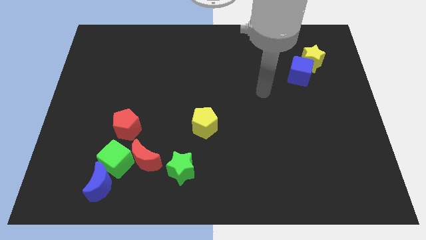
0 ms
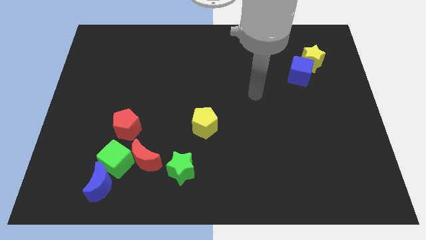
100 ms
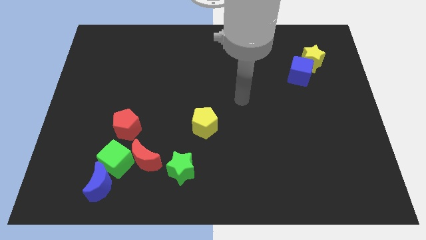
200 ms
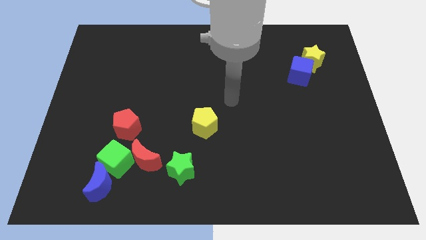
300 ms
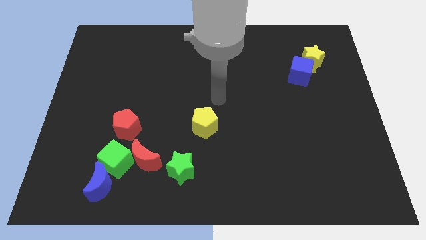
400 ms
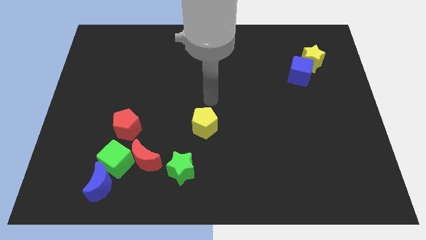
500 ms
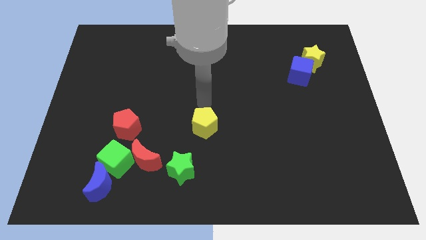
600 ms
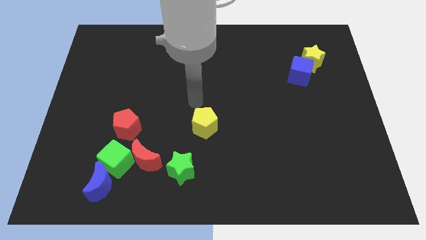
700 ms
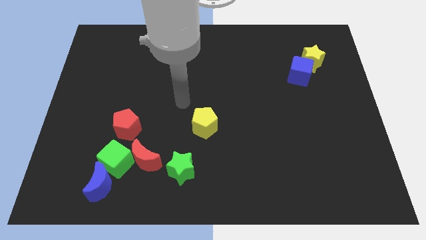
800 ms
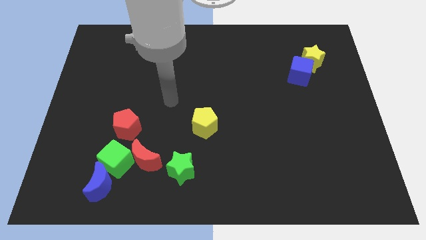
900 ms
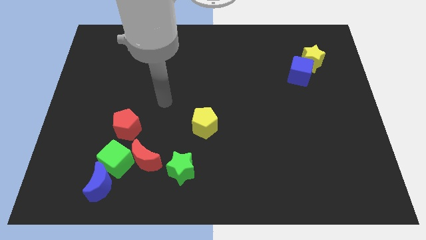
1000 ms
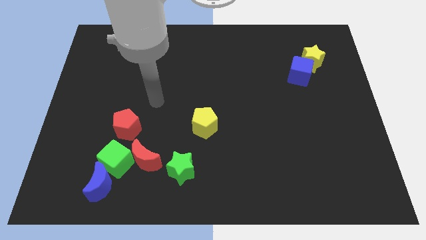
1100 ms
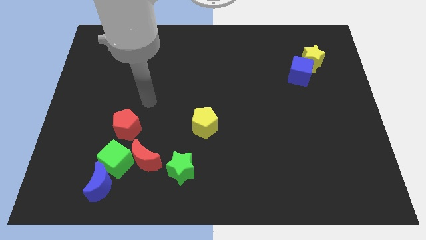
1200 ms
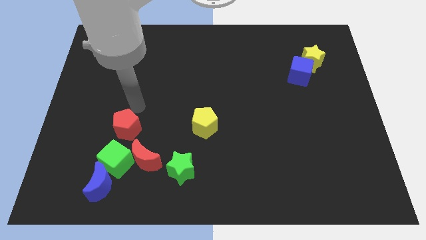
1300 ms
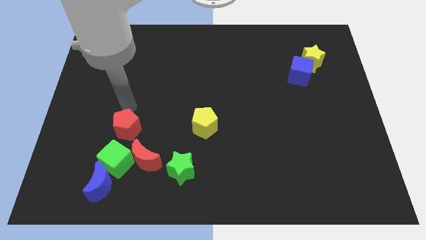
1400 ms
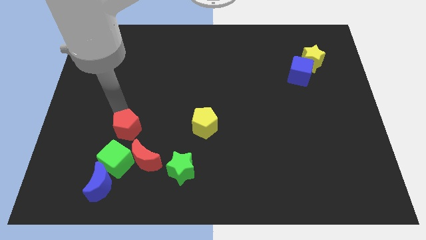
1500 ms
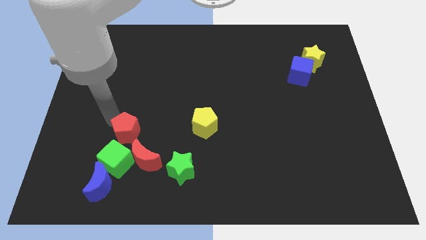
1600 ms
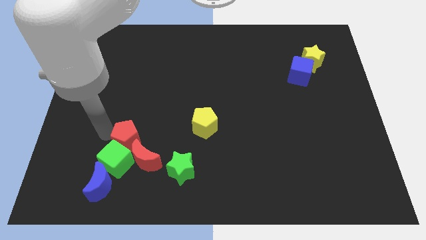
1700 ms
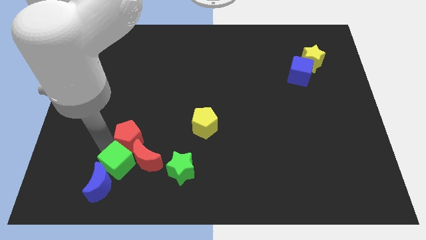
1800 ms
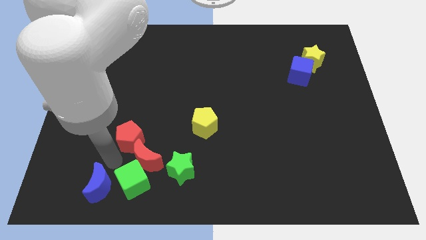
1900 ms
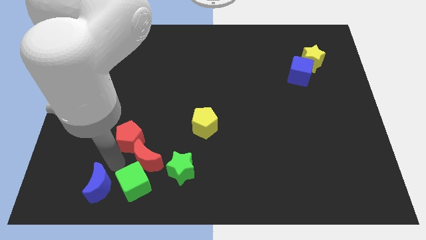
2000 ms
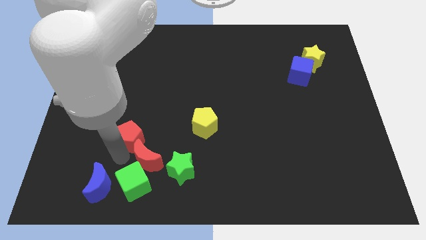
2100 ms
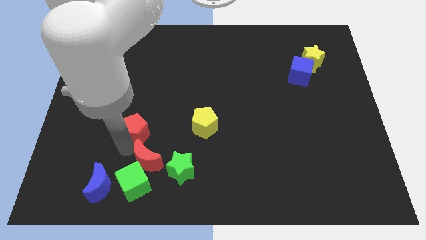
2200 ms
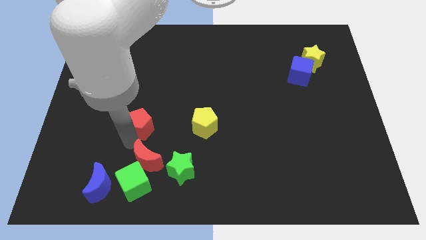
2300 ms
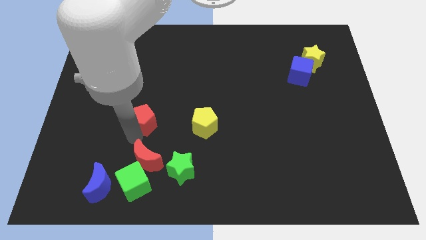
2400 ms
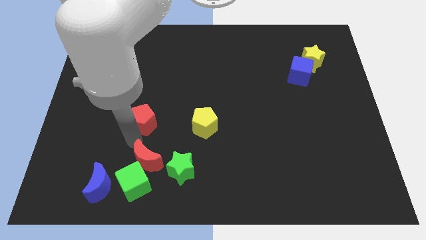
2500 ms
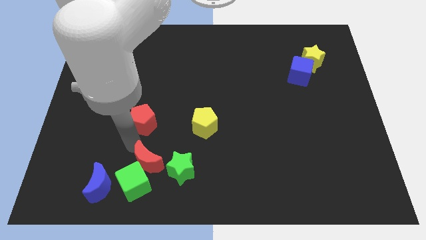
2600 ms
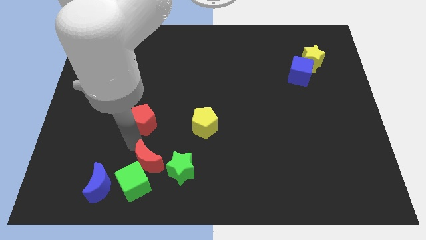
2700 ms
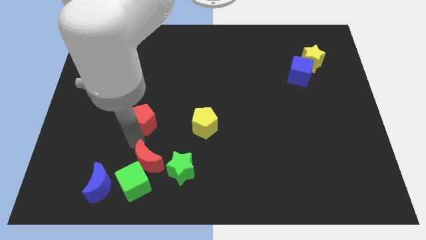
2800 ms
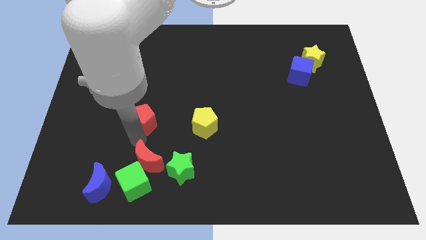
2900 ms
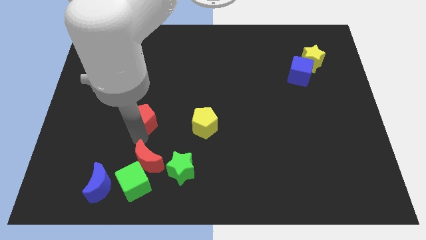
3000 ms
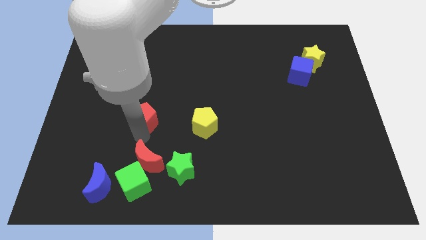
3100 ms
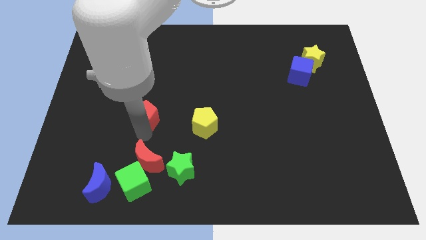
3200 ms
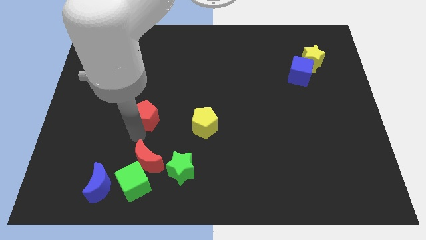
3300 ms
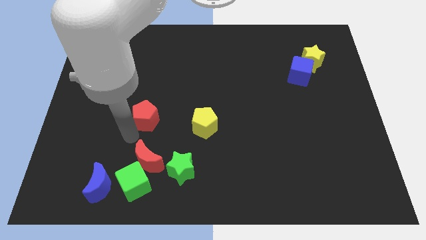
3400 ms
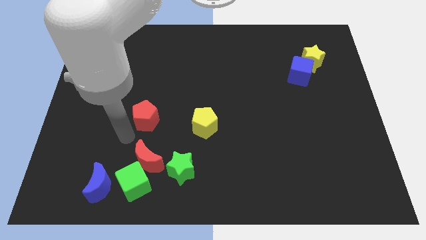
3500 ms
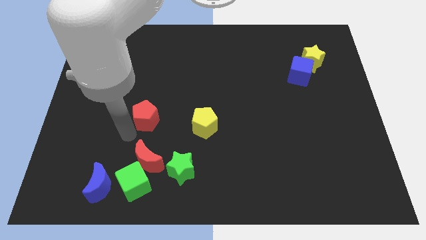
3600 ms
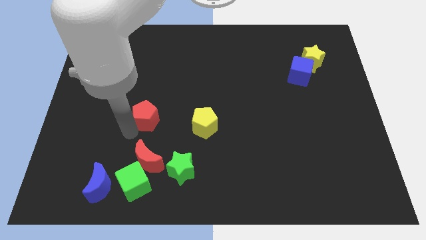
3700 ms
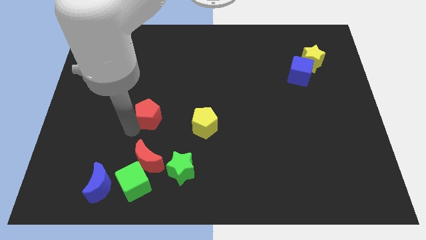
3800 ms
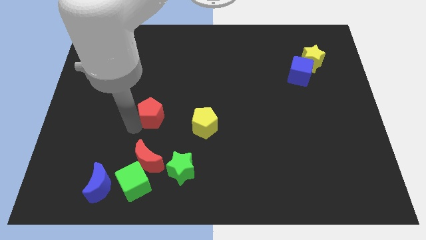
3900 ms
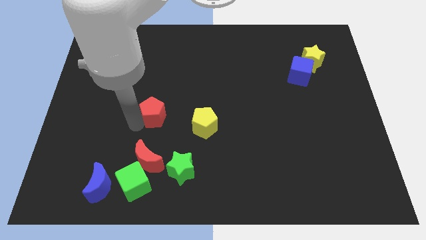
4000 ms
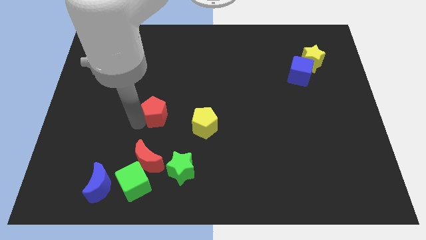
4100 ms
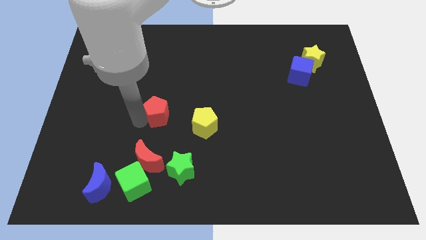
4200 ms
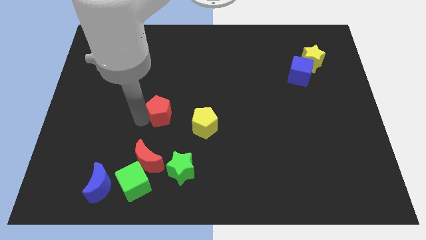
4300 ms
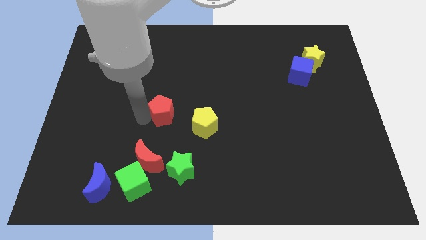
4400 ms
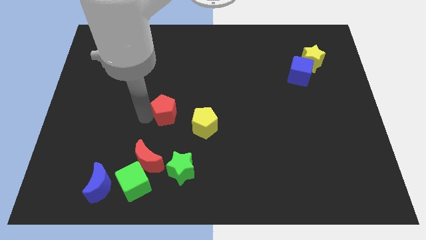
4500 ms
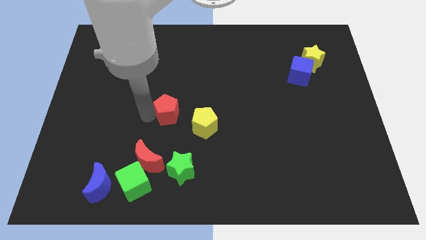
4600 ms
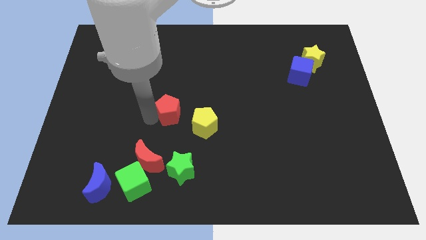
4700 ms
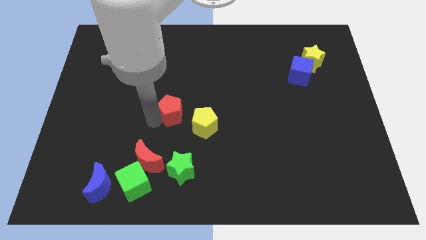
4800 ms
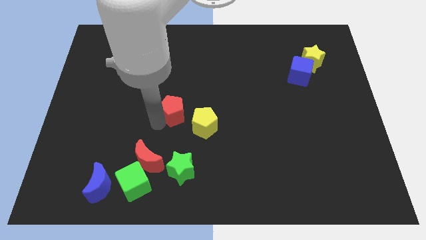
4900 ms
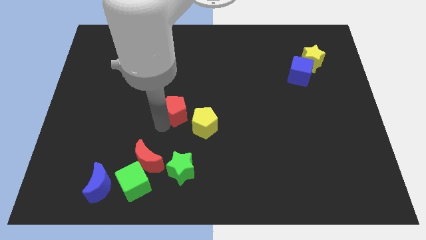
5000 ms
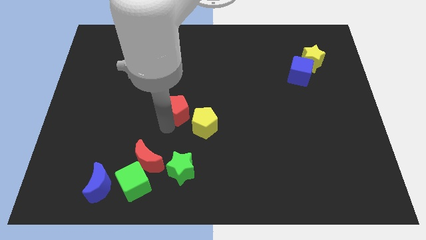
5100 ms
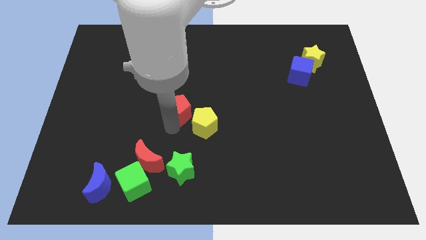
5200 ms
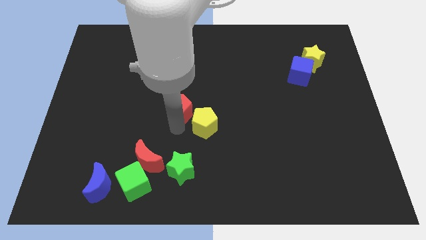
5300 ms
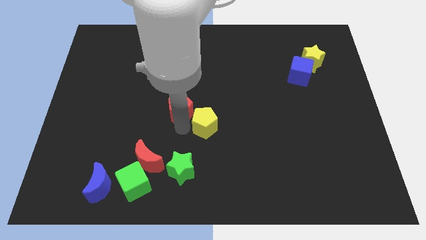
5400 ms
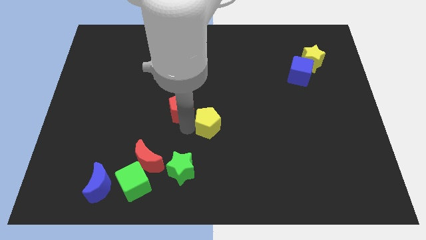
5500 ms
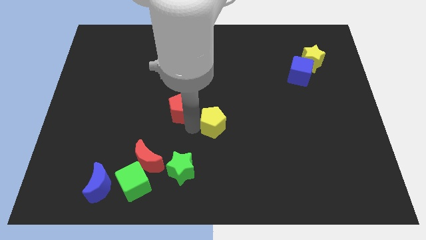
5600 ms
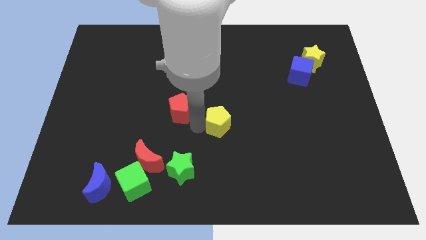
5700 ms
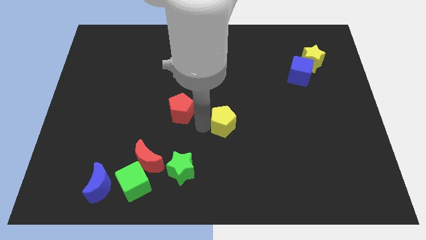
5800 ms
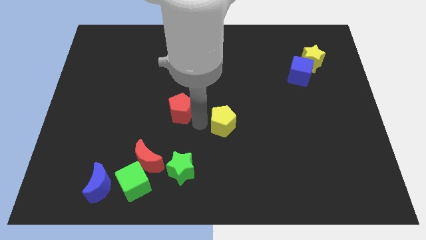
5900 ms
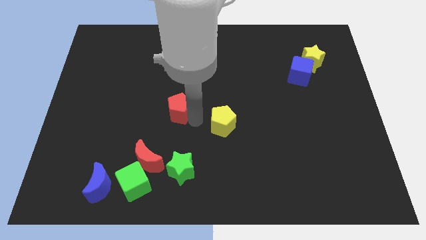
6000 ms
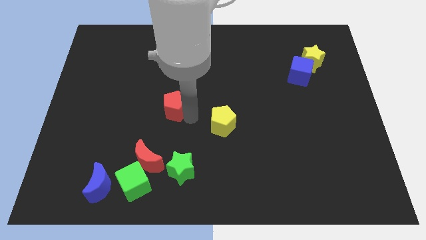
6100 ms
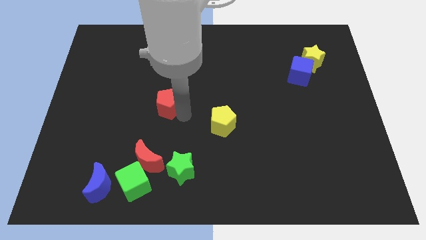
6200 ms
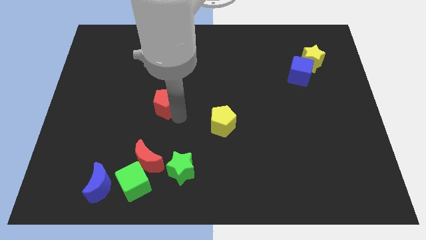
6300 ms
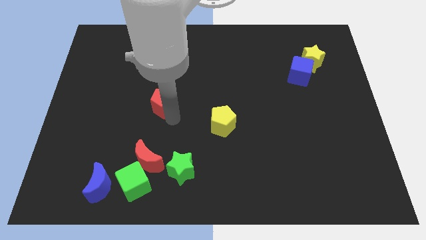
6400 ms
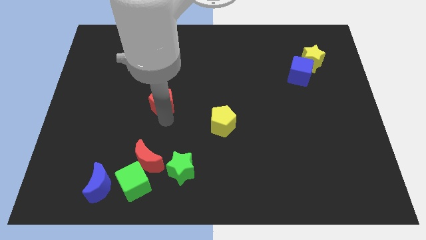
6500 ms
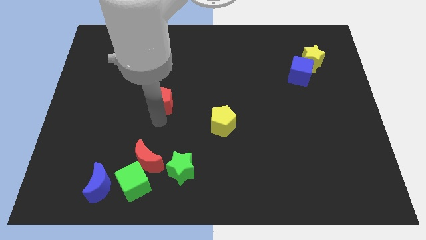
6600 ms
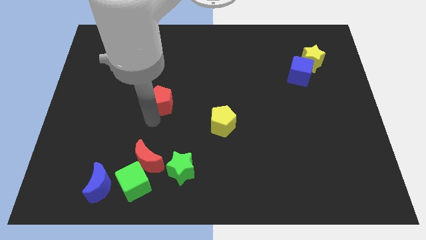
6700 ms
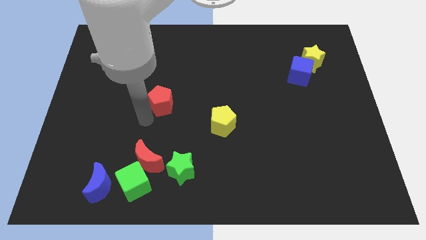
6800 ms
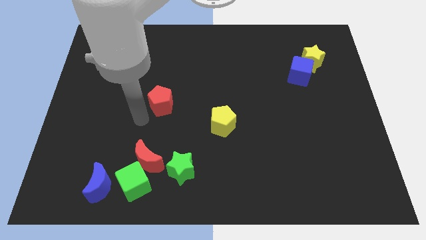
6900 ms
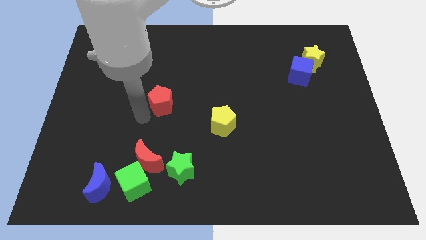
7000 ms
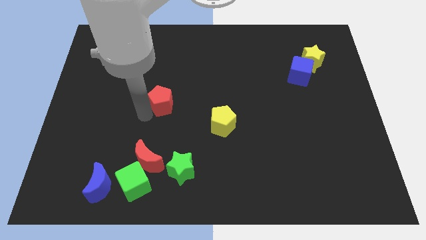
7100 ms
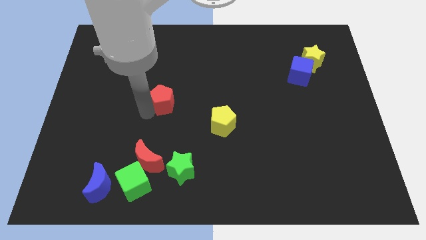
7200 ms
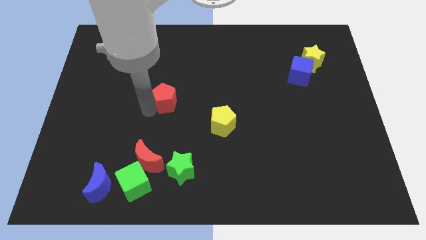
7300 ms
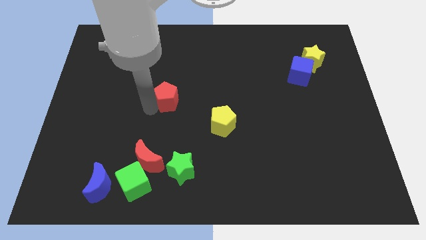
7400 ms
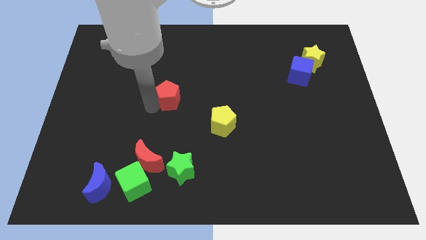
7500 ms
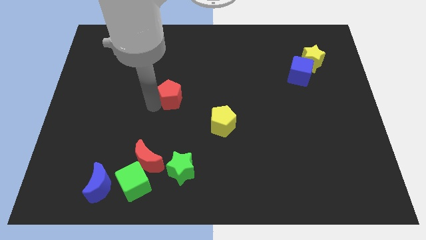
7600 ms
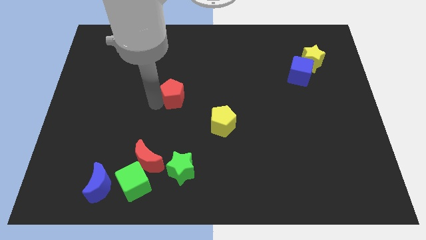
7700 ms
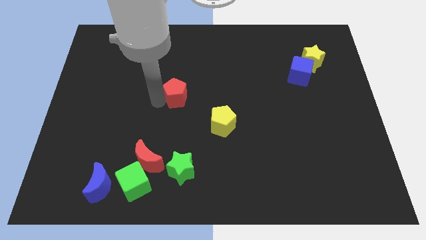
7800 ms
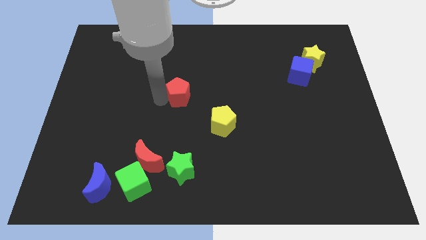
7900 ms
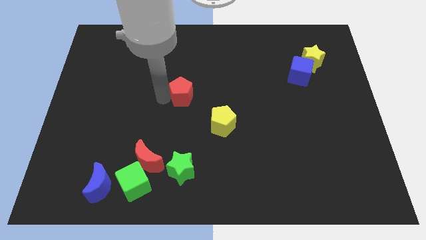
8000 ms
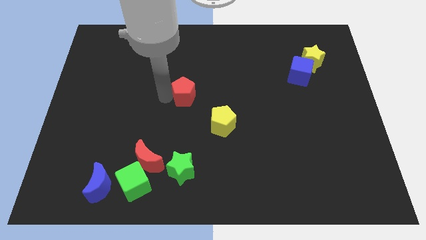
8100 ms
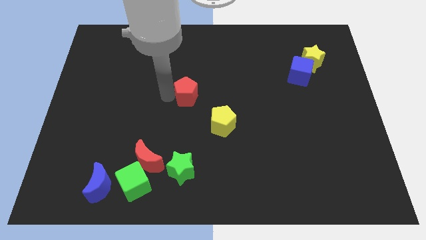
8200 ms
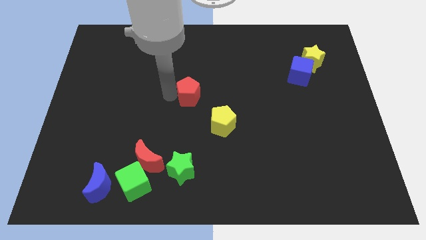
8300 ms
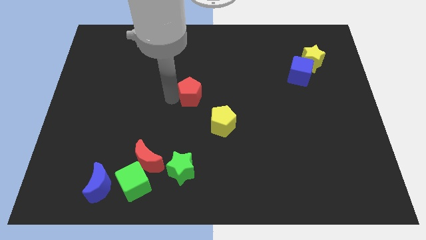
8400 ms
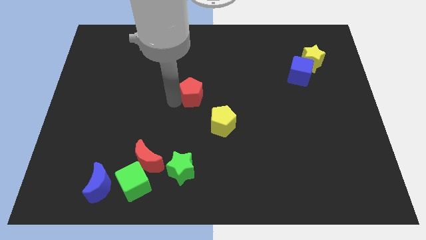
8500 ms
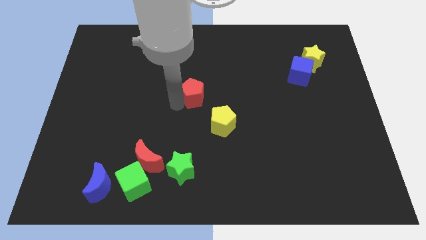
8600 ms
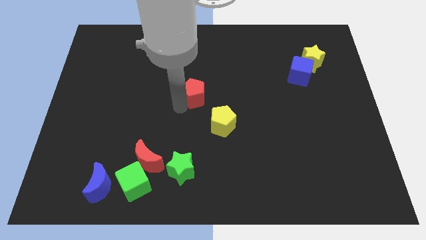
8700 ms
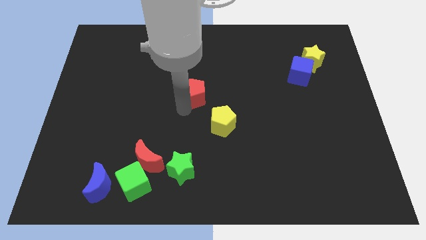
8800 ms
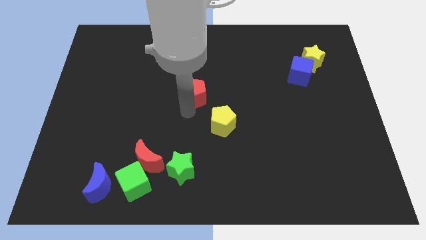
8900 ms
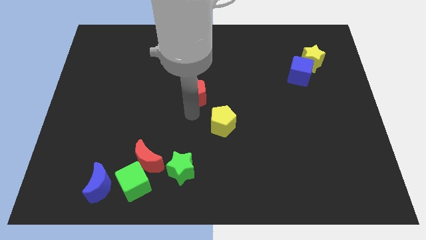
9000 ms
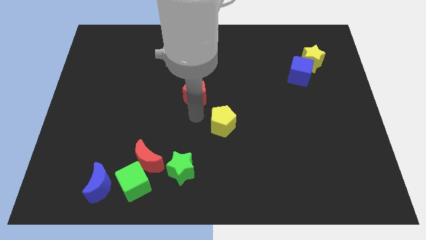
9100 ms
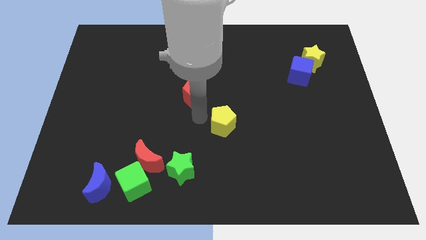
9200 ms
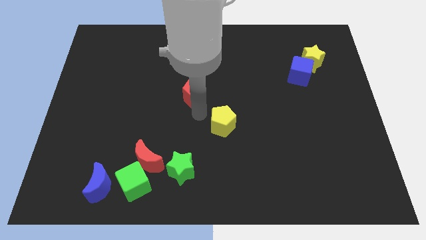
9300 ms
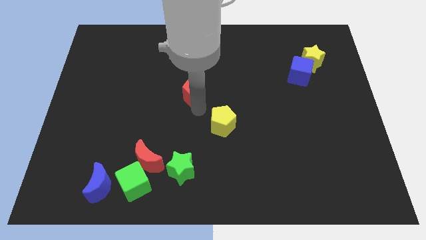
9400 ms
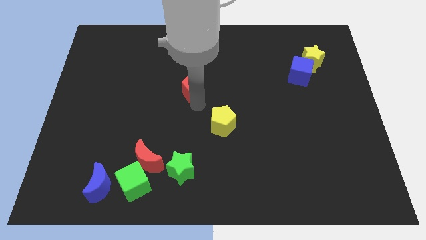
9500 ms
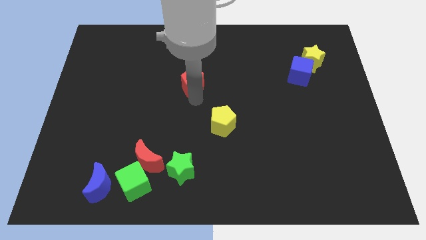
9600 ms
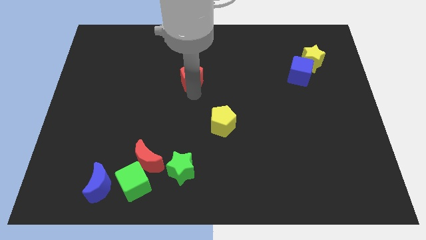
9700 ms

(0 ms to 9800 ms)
slide the red pentagon upwards and then right
